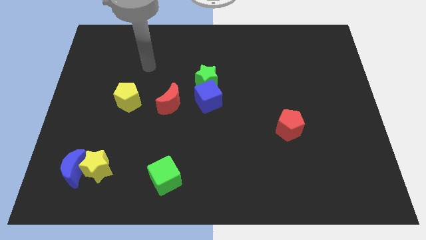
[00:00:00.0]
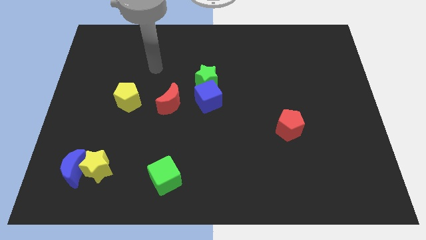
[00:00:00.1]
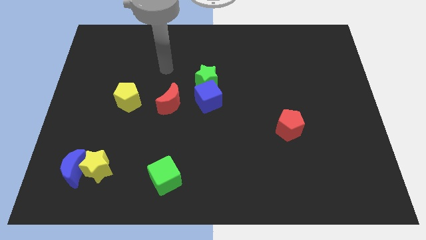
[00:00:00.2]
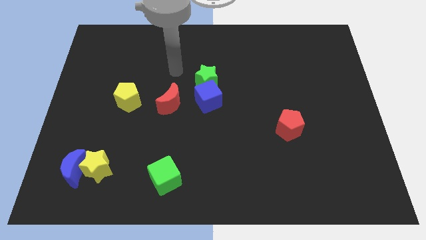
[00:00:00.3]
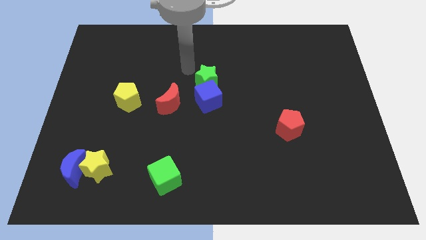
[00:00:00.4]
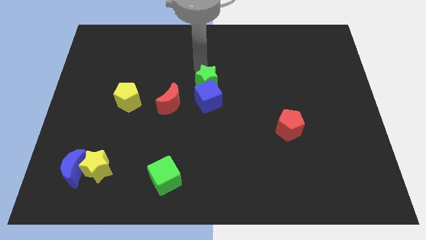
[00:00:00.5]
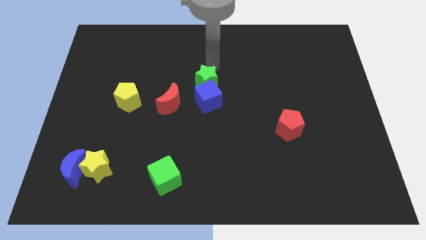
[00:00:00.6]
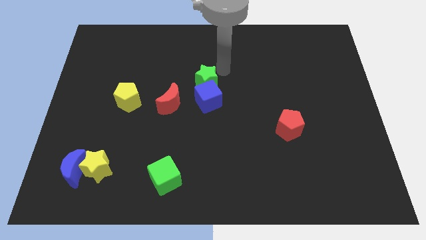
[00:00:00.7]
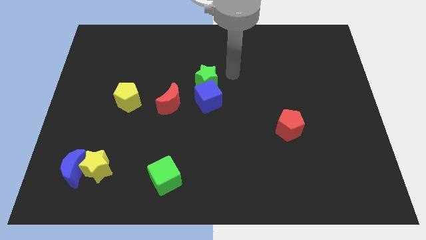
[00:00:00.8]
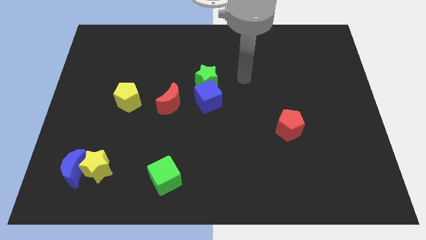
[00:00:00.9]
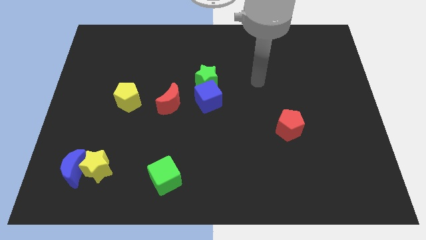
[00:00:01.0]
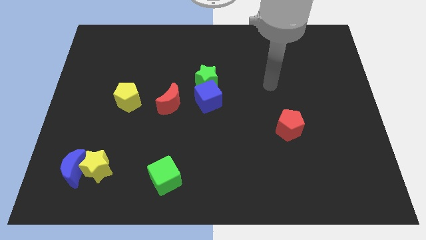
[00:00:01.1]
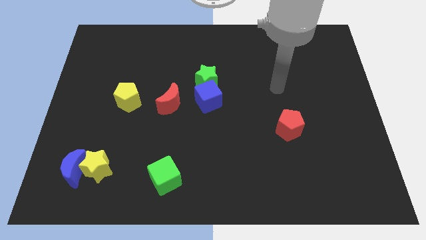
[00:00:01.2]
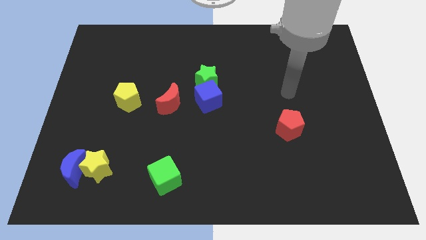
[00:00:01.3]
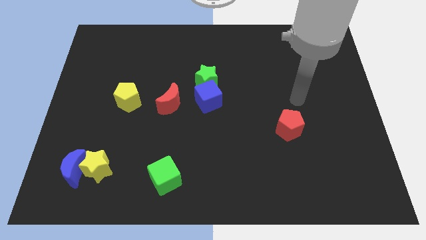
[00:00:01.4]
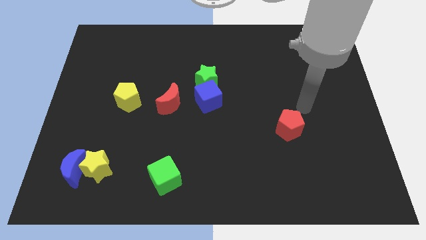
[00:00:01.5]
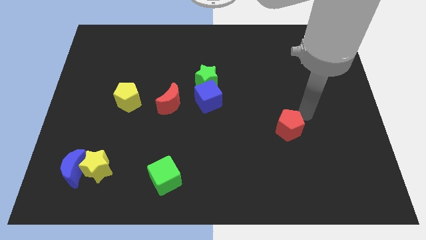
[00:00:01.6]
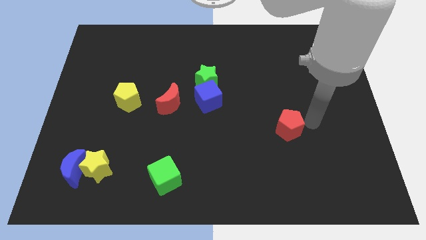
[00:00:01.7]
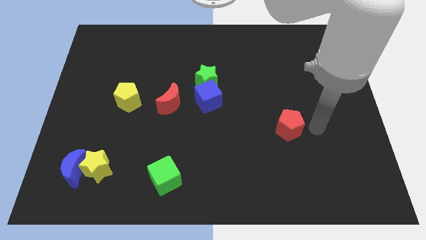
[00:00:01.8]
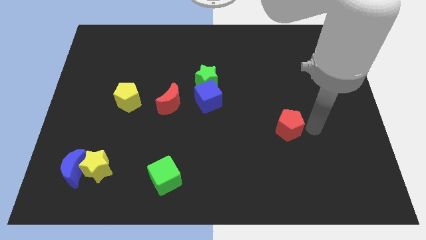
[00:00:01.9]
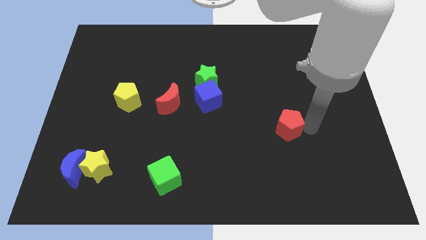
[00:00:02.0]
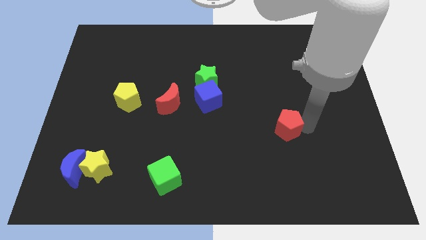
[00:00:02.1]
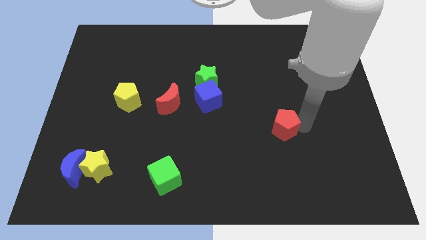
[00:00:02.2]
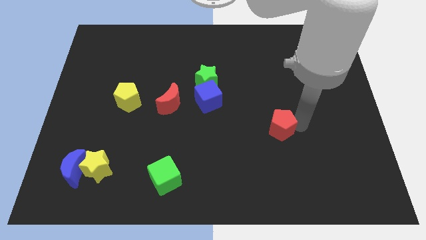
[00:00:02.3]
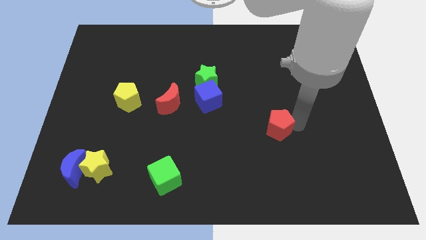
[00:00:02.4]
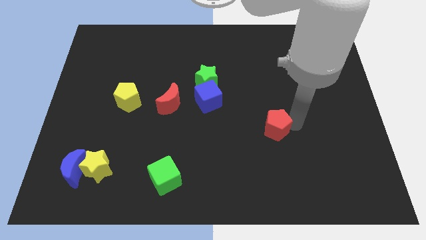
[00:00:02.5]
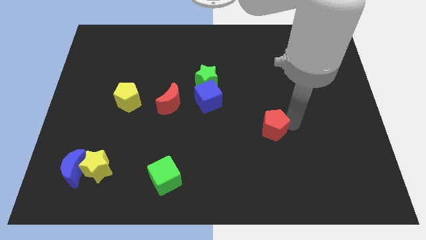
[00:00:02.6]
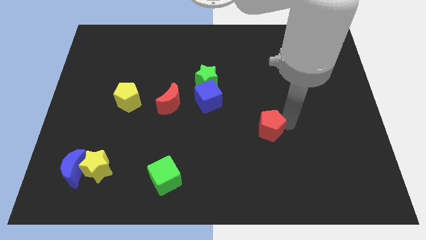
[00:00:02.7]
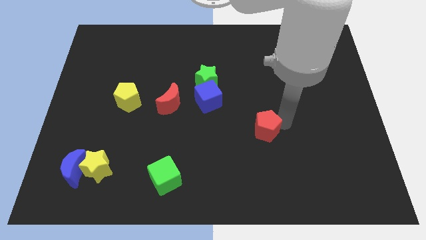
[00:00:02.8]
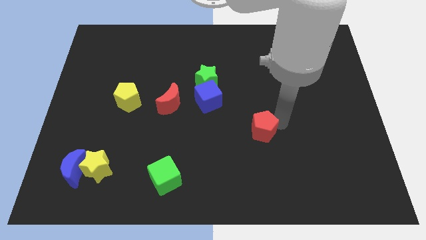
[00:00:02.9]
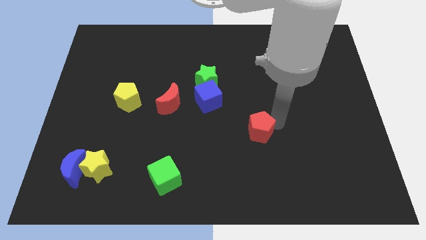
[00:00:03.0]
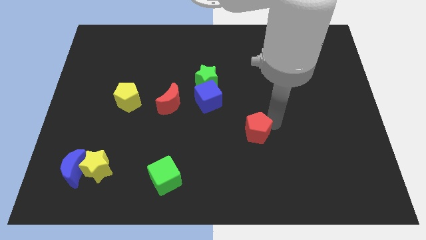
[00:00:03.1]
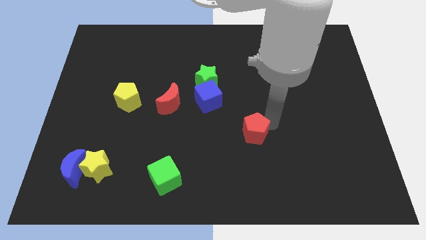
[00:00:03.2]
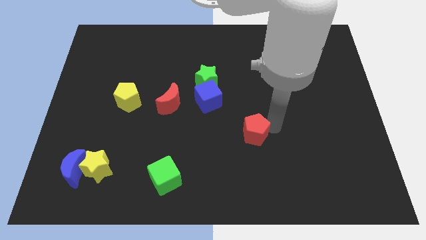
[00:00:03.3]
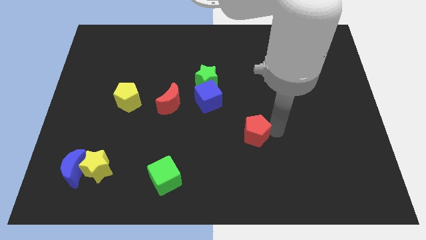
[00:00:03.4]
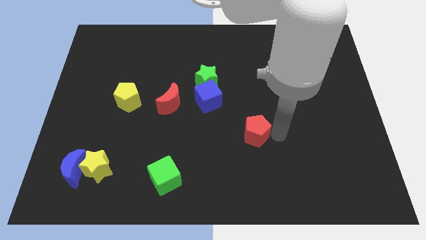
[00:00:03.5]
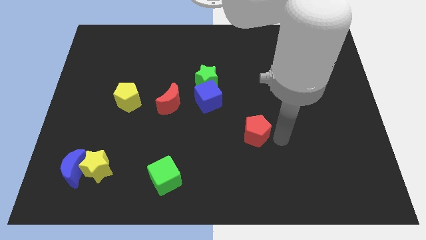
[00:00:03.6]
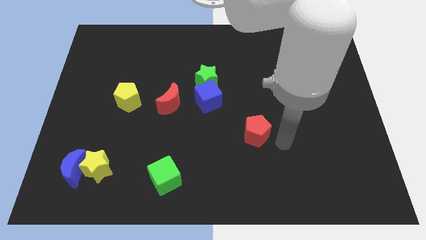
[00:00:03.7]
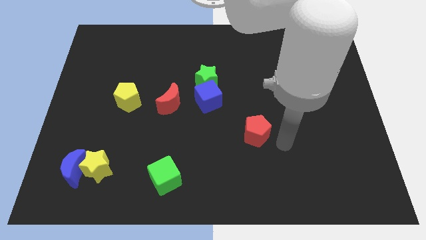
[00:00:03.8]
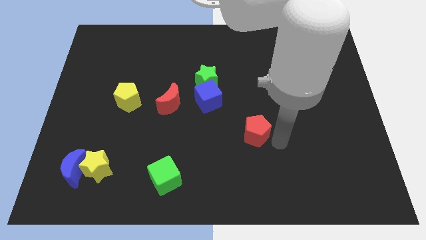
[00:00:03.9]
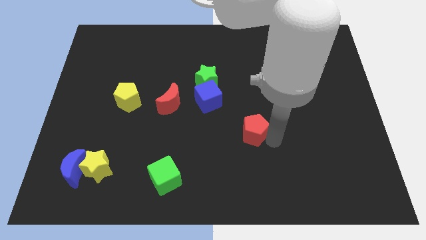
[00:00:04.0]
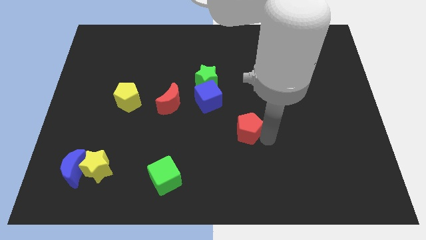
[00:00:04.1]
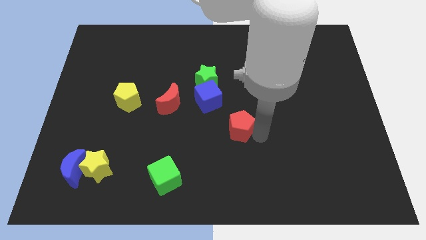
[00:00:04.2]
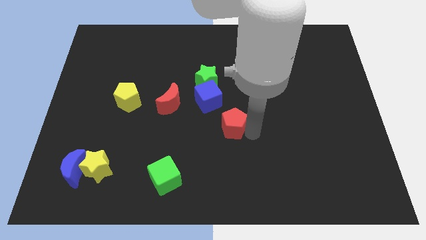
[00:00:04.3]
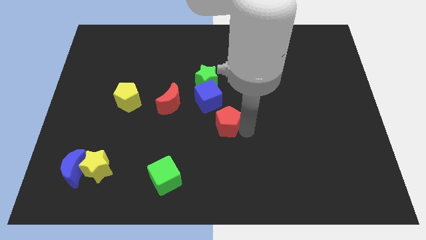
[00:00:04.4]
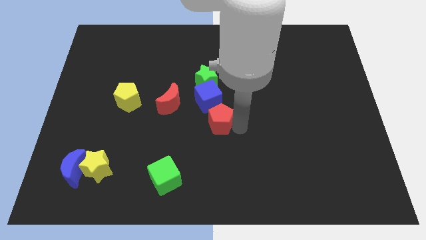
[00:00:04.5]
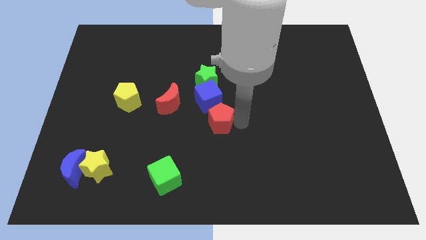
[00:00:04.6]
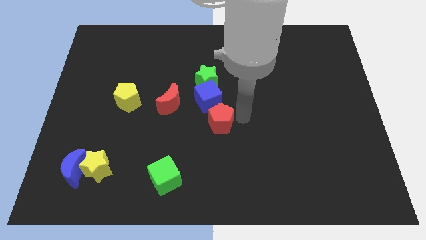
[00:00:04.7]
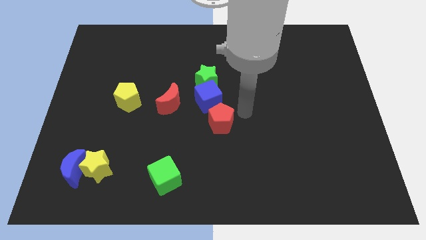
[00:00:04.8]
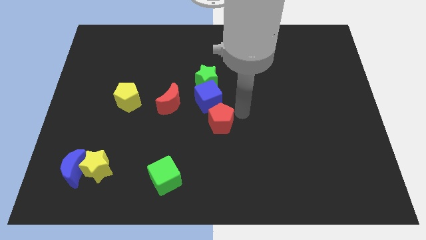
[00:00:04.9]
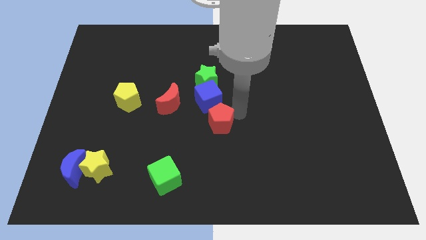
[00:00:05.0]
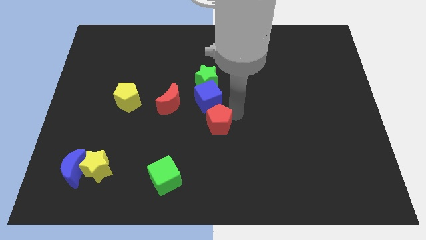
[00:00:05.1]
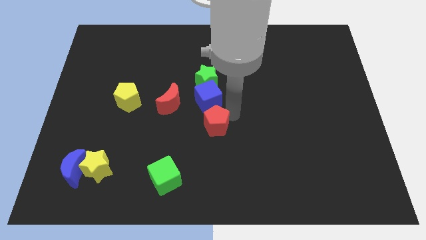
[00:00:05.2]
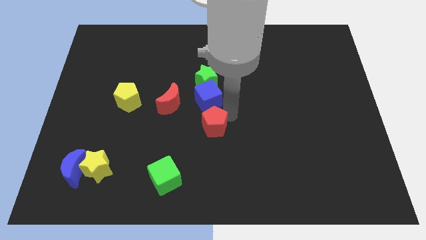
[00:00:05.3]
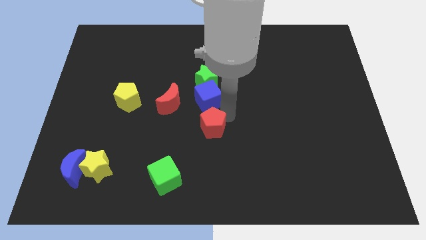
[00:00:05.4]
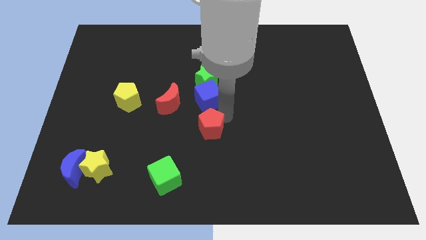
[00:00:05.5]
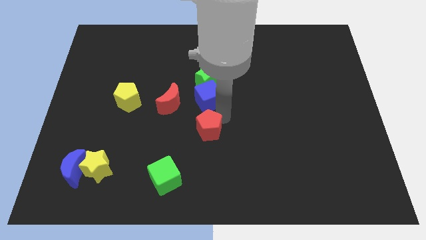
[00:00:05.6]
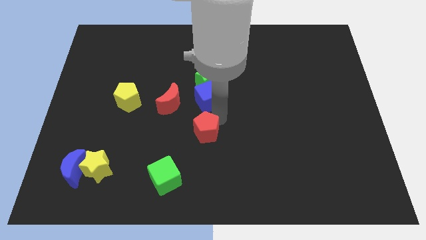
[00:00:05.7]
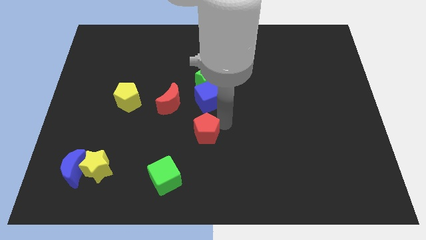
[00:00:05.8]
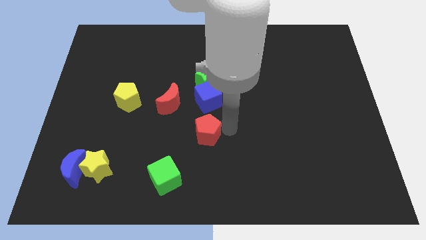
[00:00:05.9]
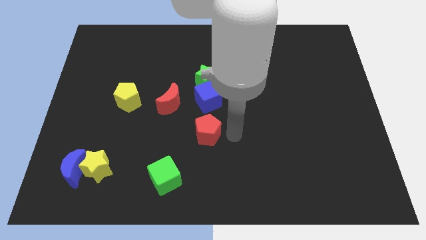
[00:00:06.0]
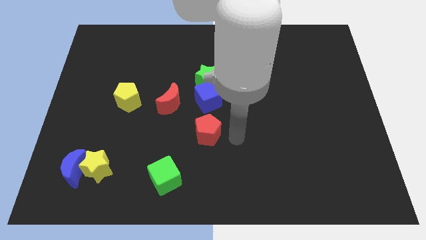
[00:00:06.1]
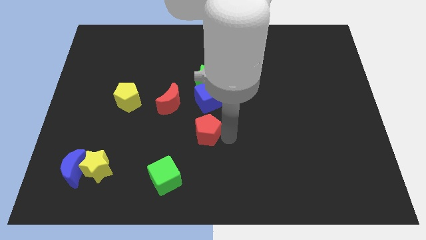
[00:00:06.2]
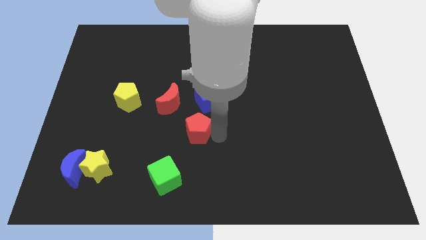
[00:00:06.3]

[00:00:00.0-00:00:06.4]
slide the red pentagon to the left

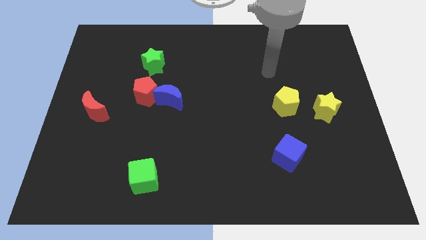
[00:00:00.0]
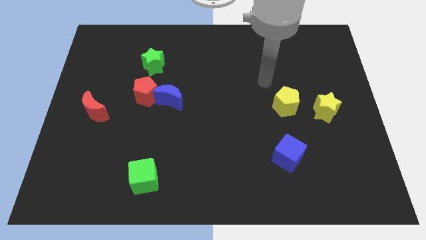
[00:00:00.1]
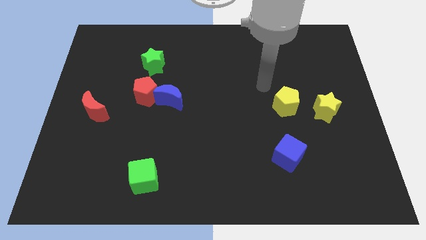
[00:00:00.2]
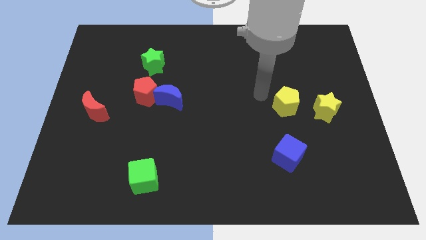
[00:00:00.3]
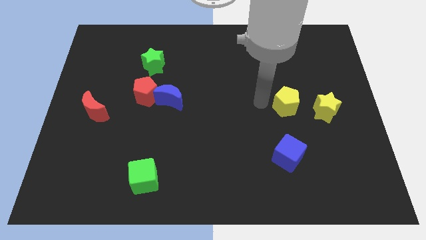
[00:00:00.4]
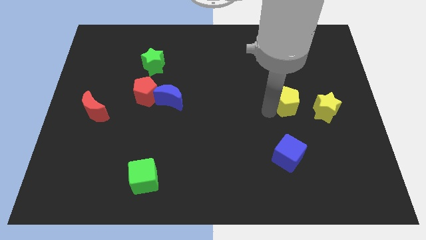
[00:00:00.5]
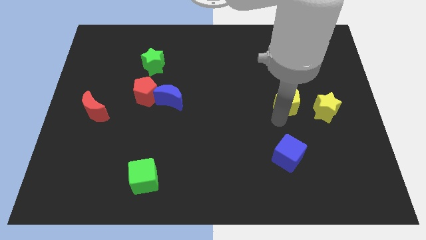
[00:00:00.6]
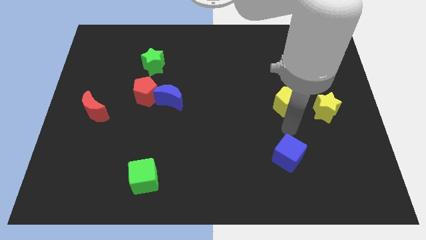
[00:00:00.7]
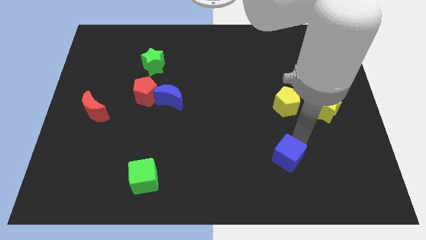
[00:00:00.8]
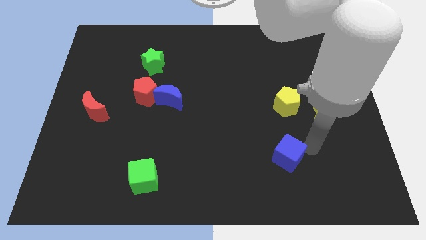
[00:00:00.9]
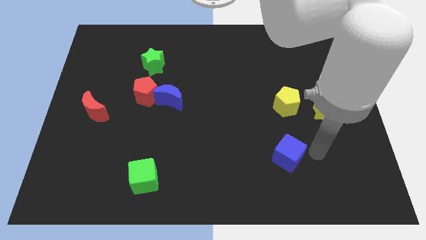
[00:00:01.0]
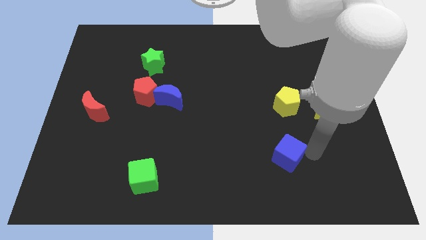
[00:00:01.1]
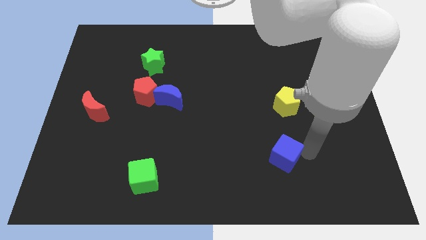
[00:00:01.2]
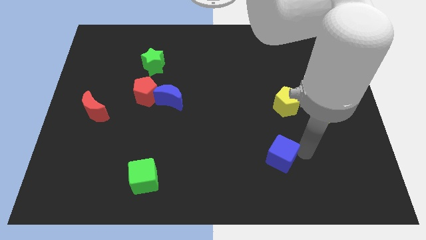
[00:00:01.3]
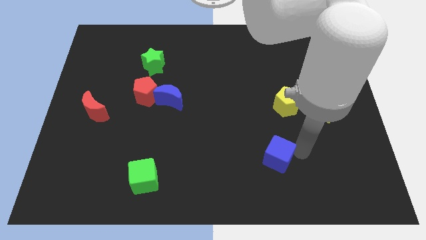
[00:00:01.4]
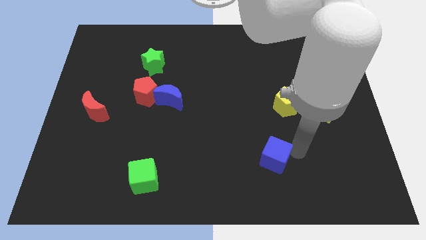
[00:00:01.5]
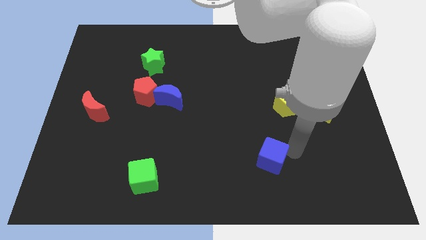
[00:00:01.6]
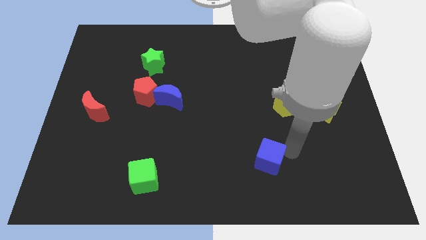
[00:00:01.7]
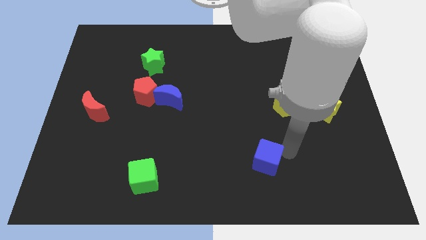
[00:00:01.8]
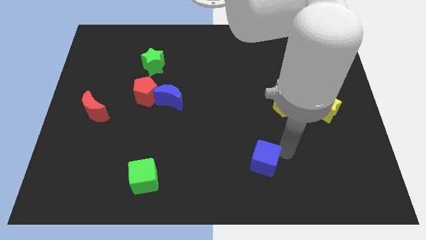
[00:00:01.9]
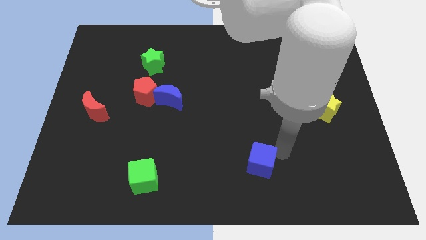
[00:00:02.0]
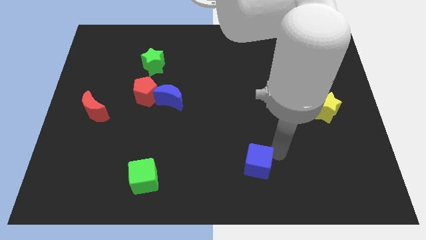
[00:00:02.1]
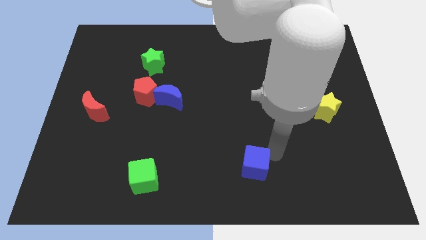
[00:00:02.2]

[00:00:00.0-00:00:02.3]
move the blue cube to the left somewhat
